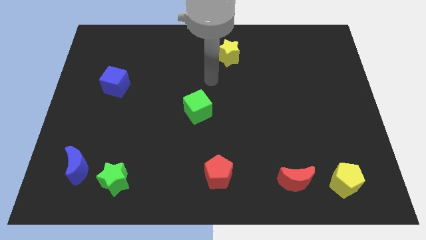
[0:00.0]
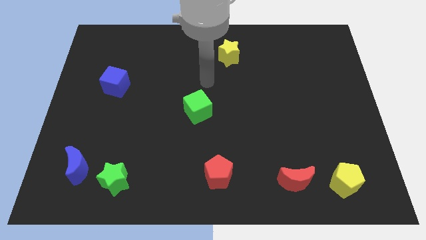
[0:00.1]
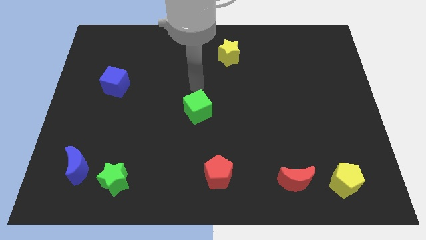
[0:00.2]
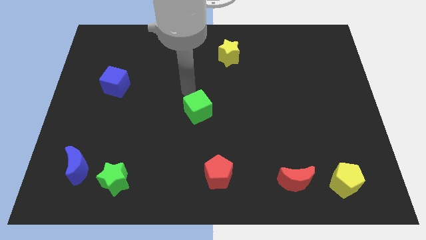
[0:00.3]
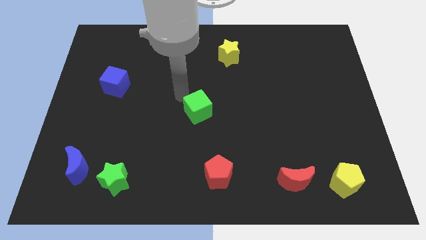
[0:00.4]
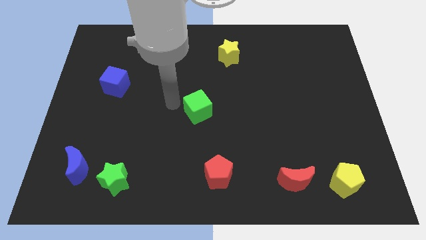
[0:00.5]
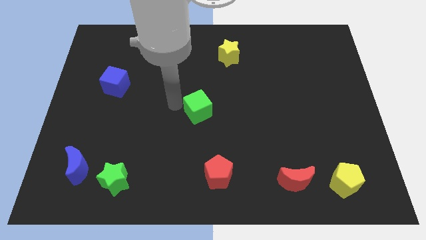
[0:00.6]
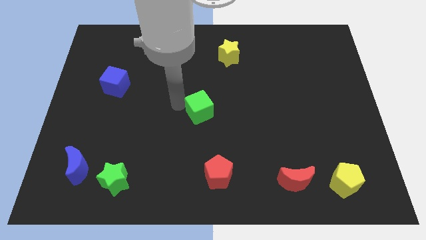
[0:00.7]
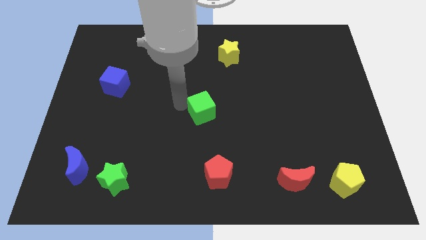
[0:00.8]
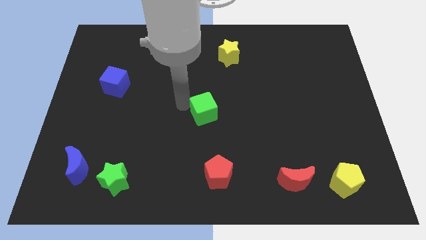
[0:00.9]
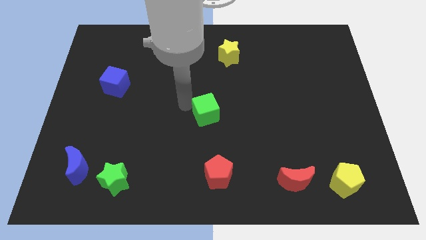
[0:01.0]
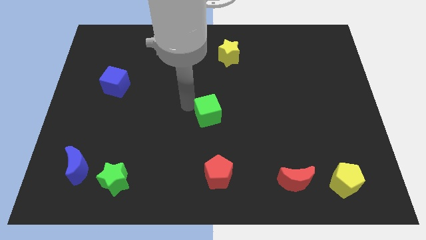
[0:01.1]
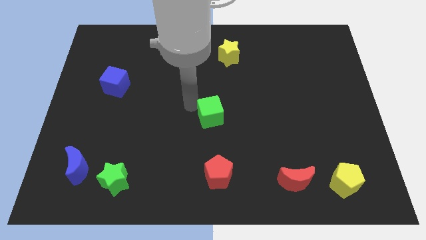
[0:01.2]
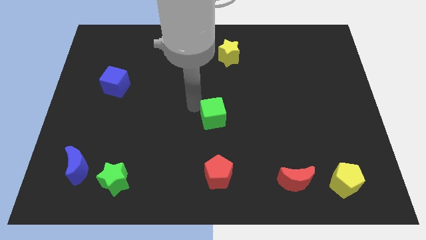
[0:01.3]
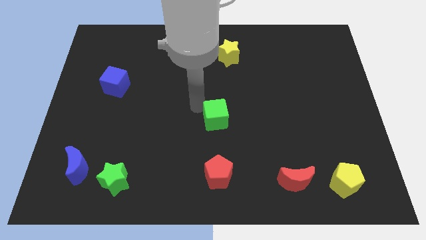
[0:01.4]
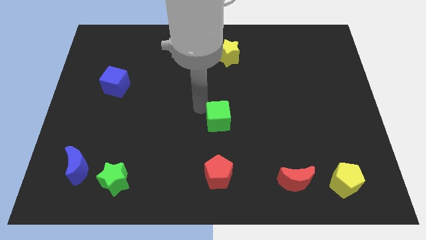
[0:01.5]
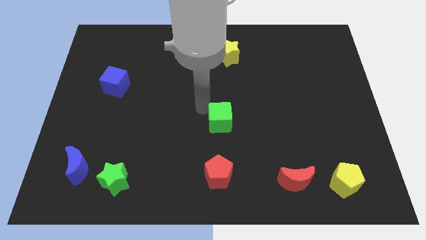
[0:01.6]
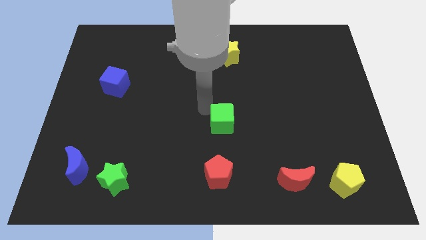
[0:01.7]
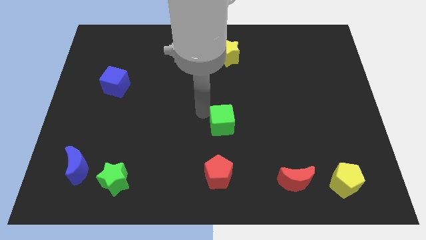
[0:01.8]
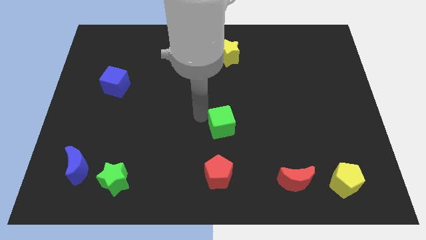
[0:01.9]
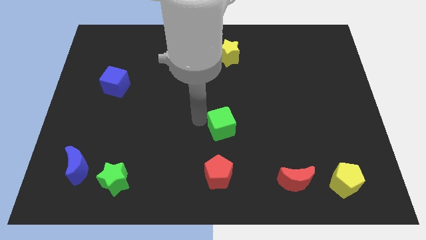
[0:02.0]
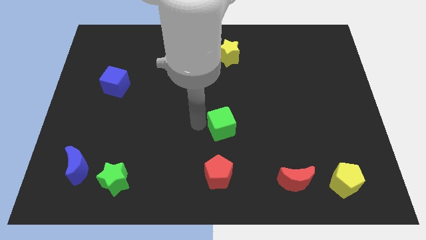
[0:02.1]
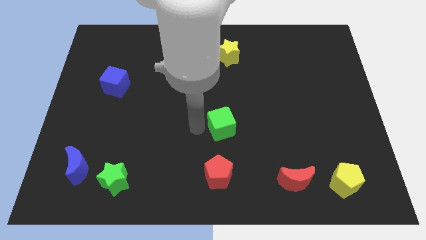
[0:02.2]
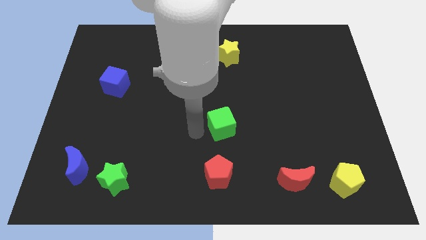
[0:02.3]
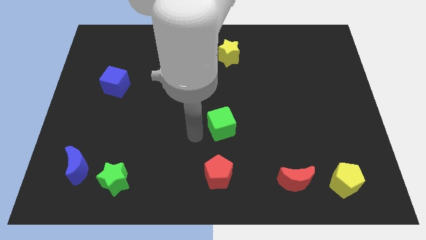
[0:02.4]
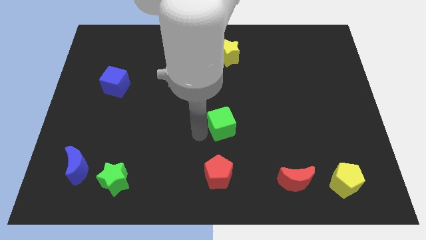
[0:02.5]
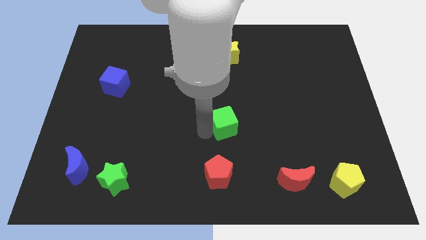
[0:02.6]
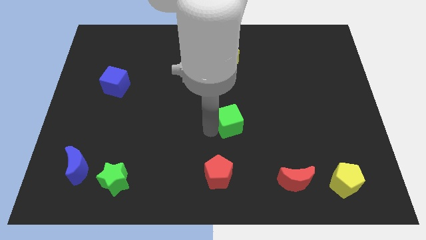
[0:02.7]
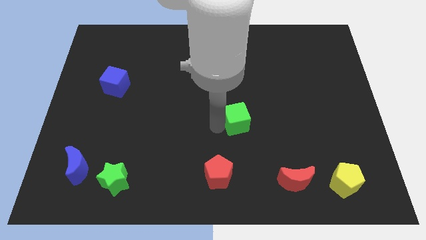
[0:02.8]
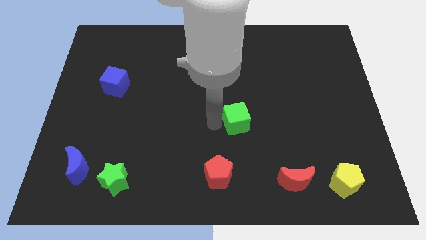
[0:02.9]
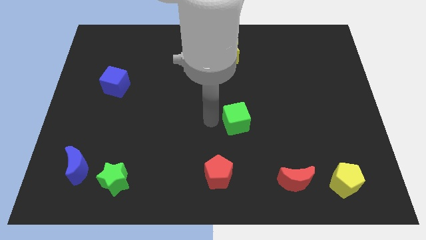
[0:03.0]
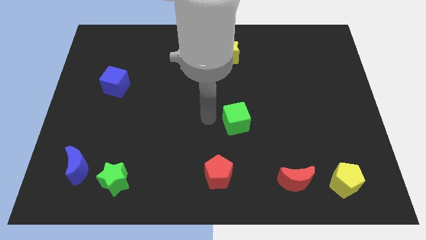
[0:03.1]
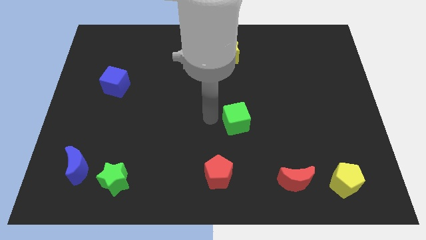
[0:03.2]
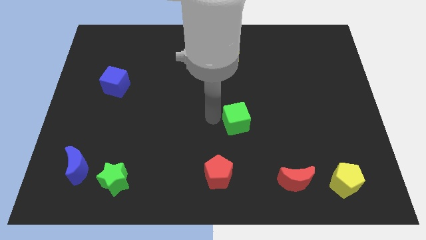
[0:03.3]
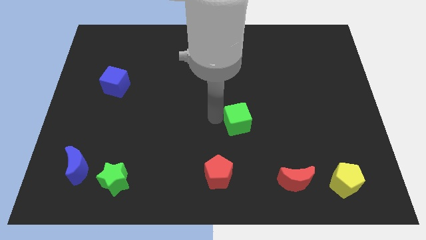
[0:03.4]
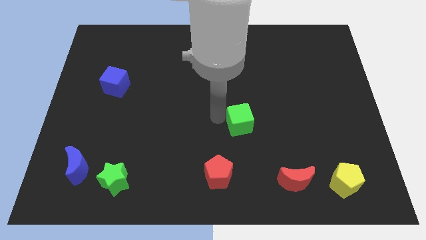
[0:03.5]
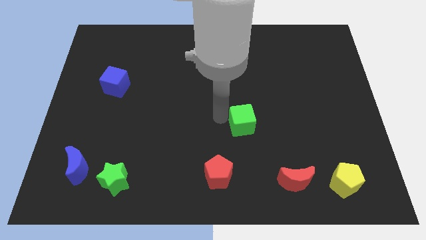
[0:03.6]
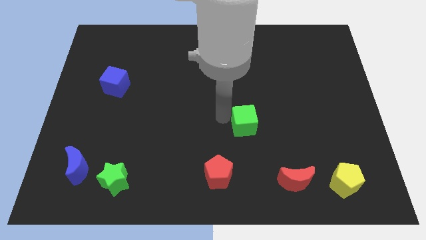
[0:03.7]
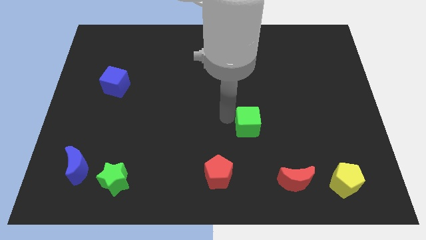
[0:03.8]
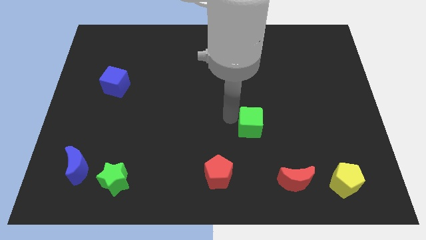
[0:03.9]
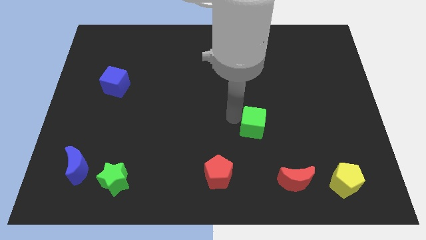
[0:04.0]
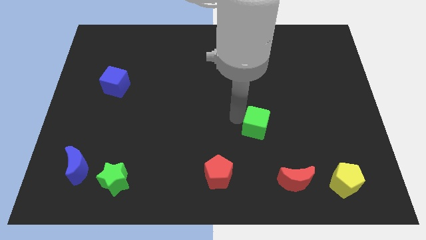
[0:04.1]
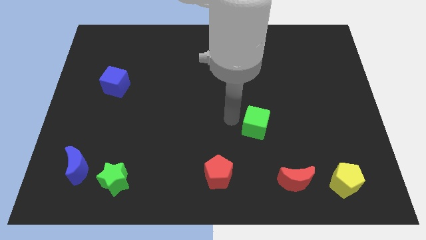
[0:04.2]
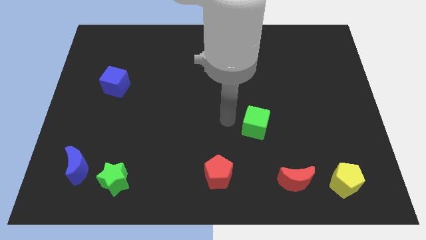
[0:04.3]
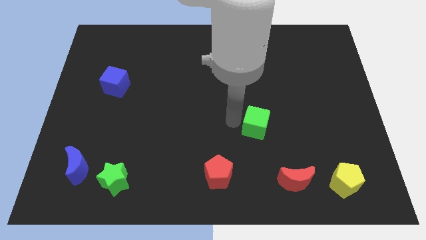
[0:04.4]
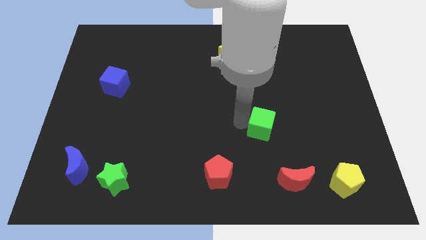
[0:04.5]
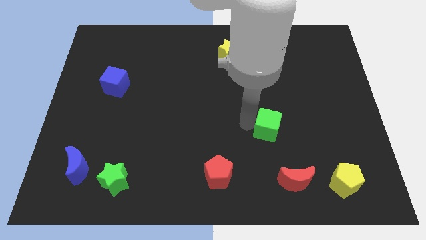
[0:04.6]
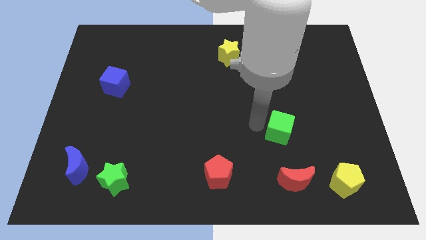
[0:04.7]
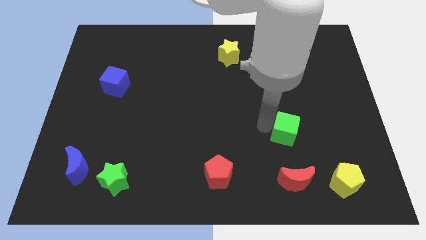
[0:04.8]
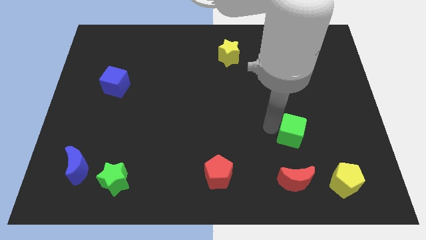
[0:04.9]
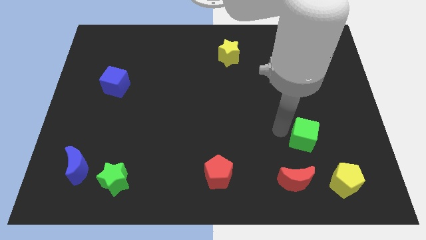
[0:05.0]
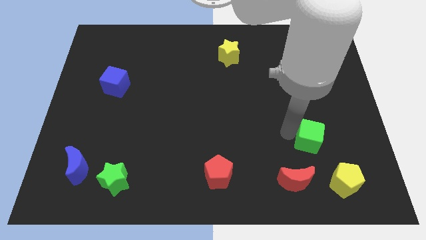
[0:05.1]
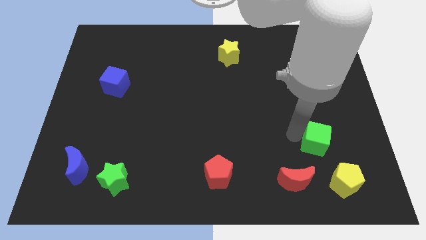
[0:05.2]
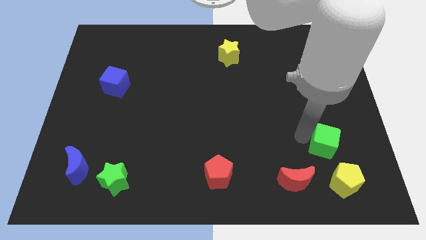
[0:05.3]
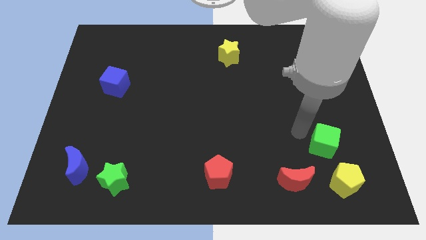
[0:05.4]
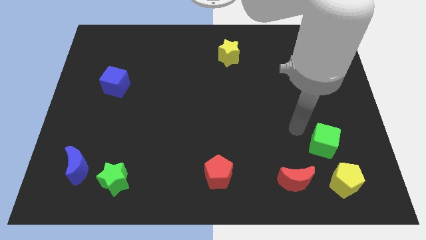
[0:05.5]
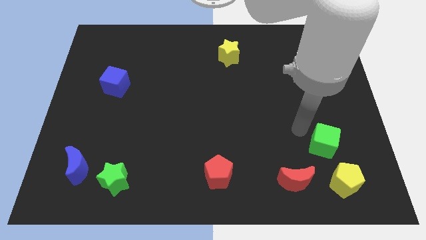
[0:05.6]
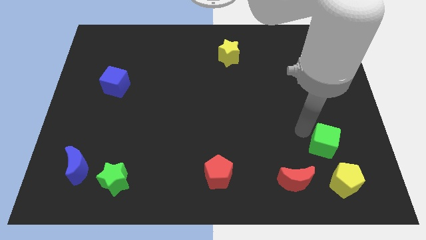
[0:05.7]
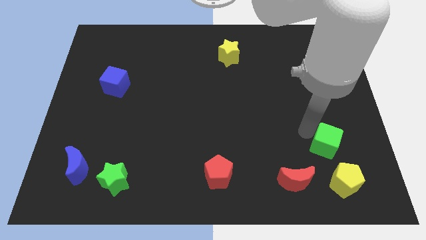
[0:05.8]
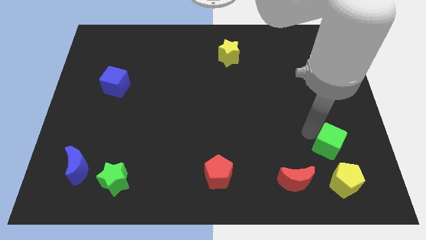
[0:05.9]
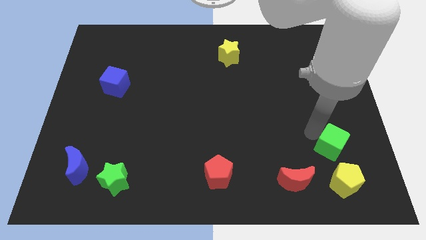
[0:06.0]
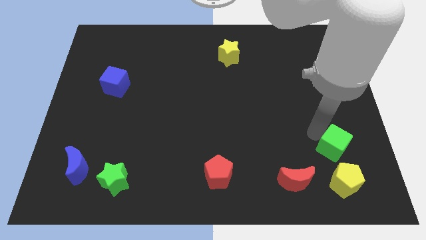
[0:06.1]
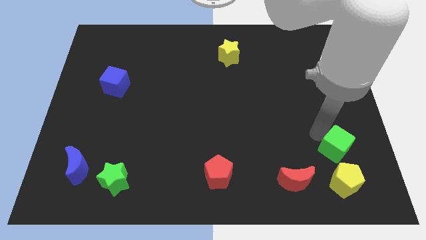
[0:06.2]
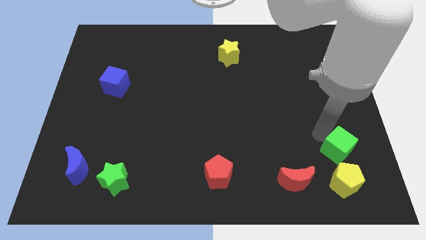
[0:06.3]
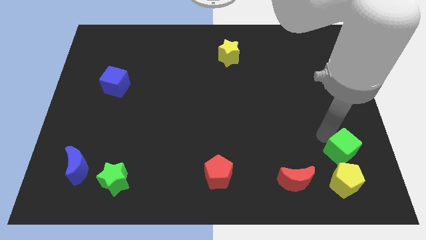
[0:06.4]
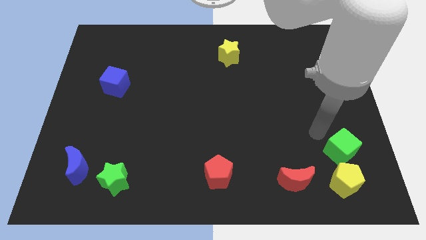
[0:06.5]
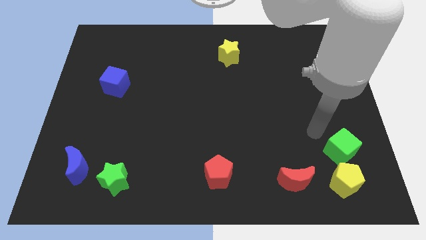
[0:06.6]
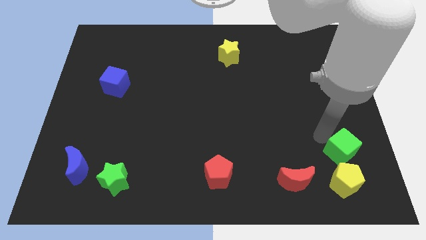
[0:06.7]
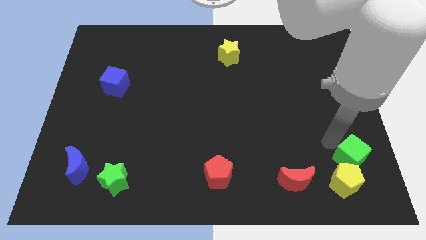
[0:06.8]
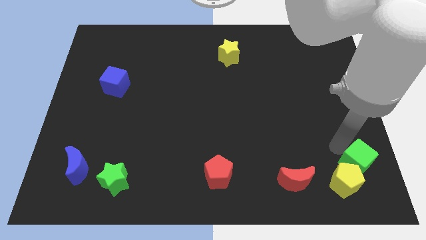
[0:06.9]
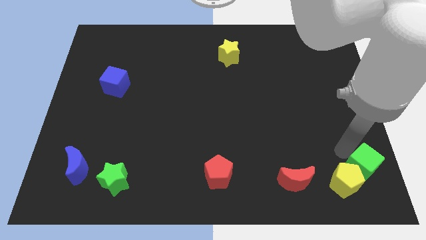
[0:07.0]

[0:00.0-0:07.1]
push the green cube to the bottom right corner
